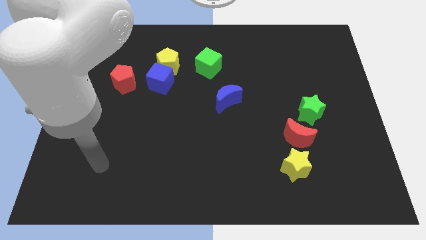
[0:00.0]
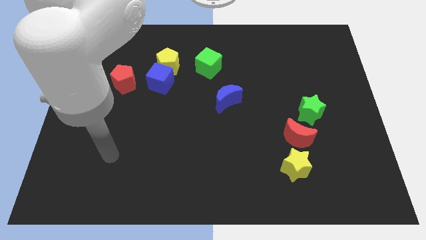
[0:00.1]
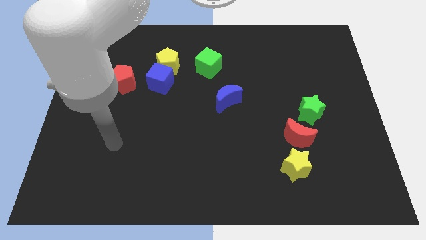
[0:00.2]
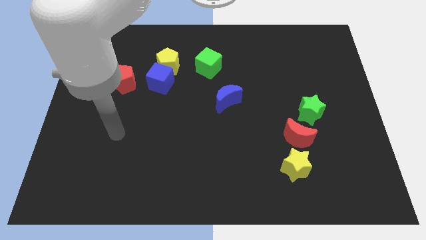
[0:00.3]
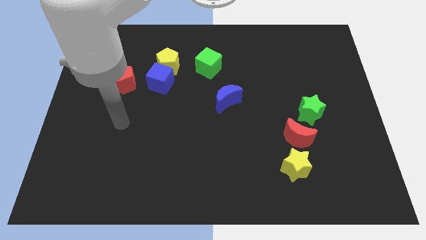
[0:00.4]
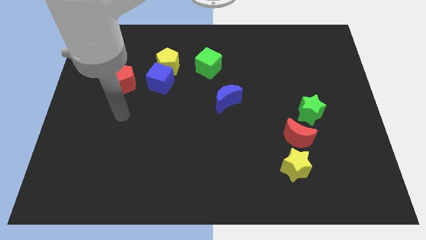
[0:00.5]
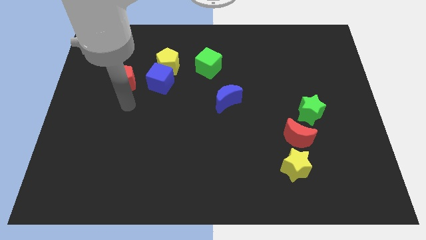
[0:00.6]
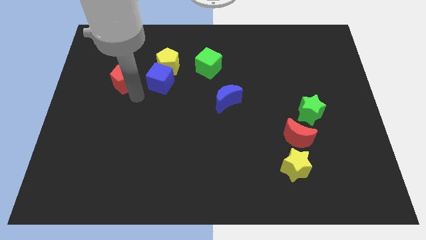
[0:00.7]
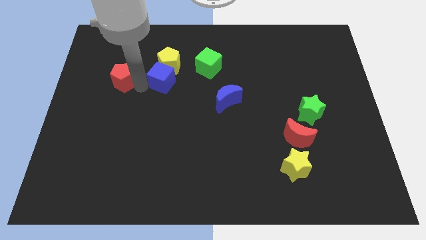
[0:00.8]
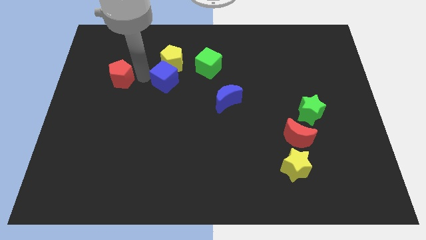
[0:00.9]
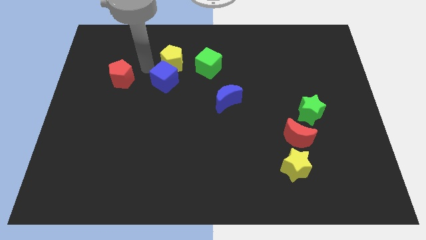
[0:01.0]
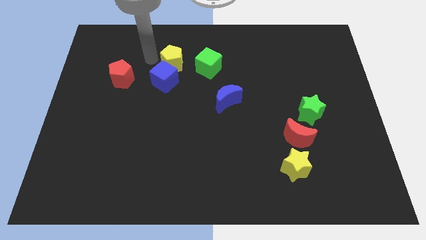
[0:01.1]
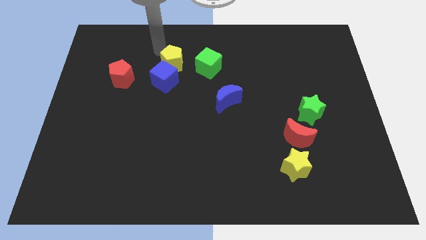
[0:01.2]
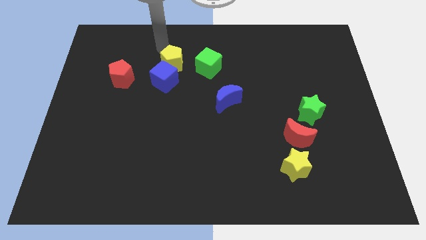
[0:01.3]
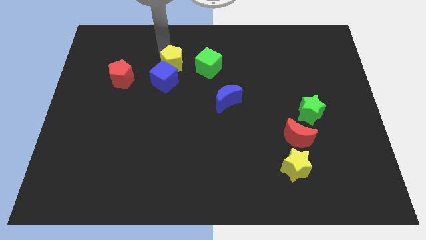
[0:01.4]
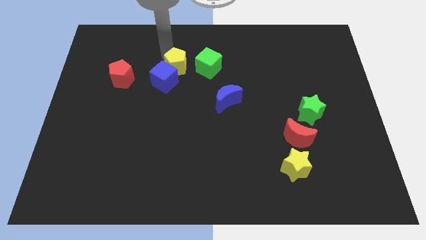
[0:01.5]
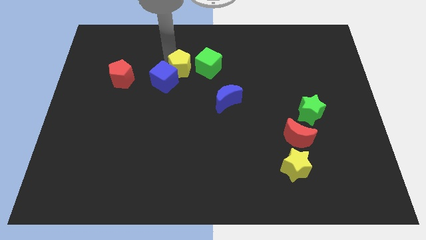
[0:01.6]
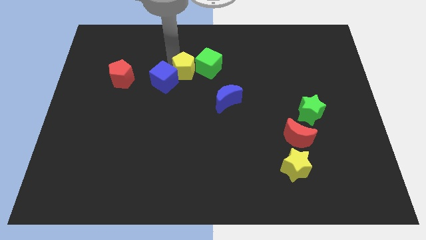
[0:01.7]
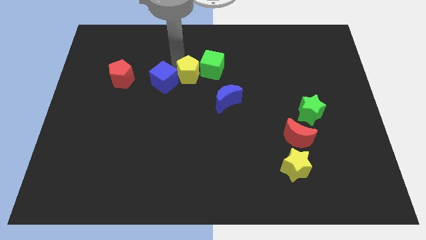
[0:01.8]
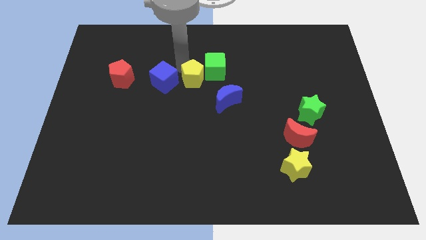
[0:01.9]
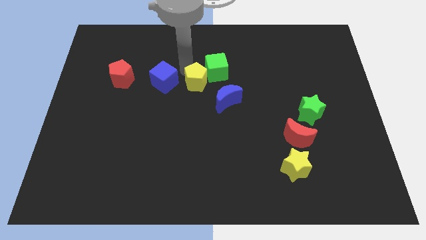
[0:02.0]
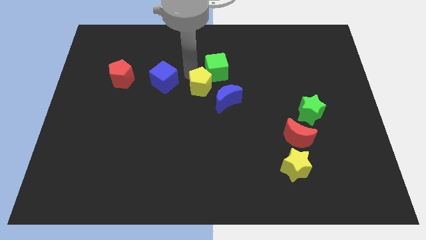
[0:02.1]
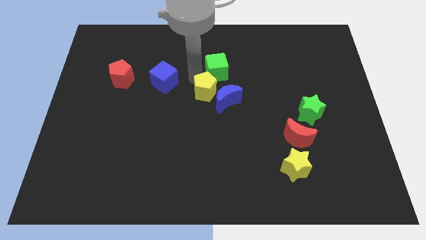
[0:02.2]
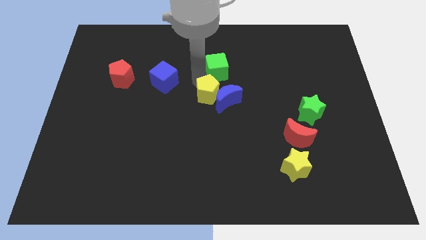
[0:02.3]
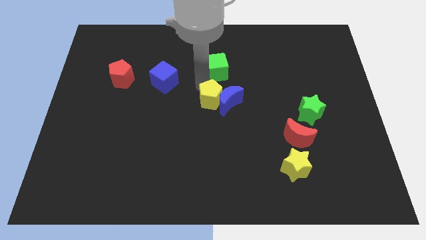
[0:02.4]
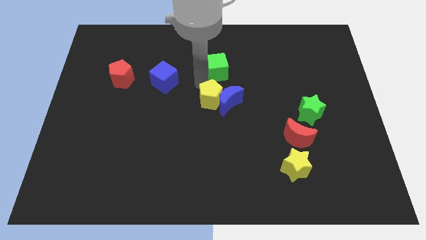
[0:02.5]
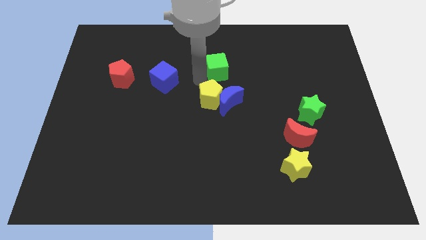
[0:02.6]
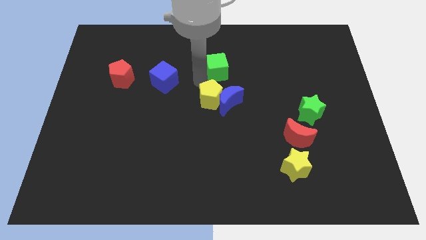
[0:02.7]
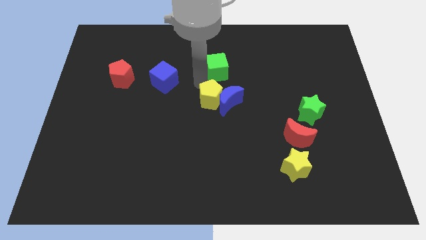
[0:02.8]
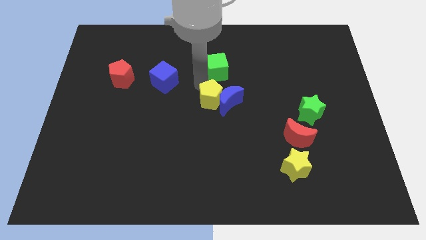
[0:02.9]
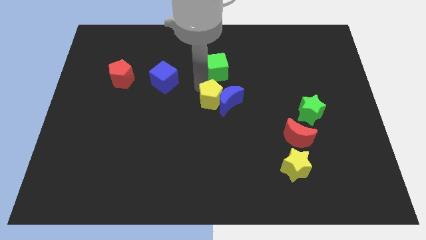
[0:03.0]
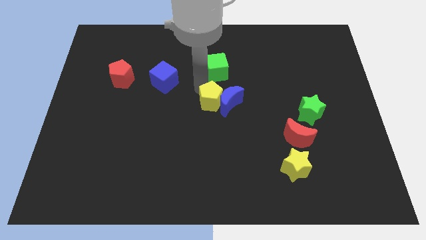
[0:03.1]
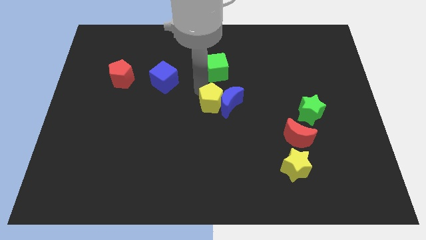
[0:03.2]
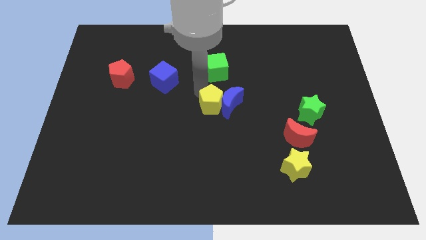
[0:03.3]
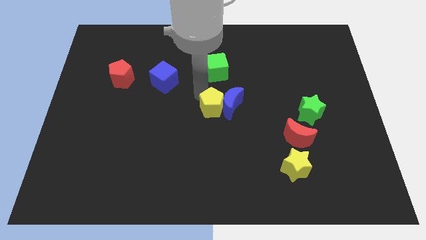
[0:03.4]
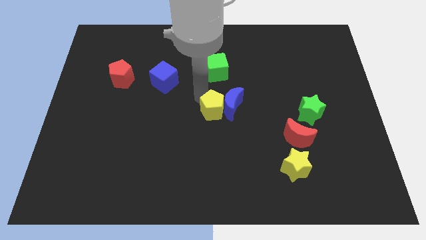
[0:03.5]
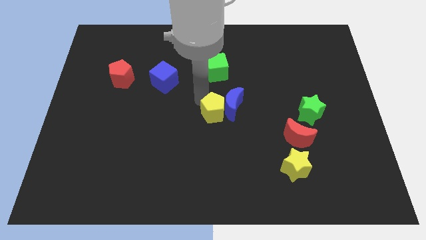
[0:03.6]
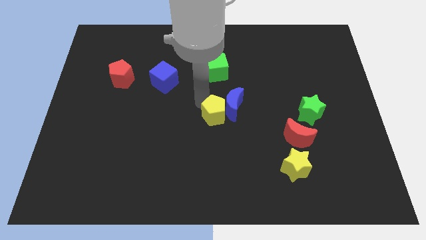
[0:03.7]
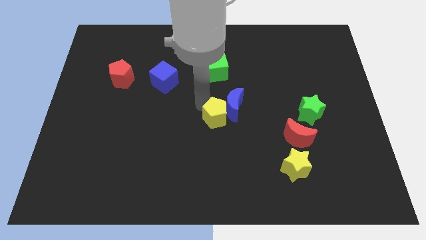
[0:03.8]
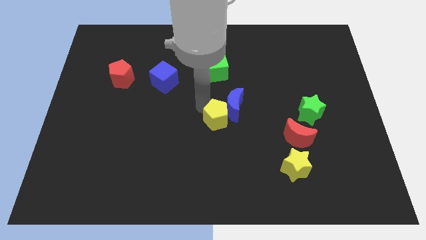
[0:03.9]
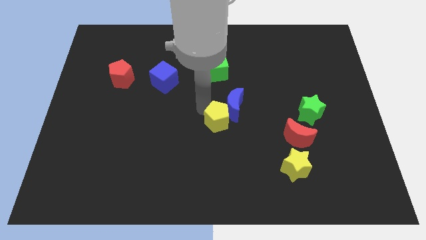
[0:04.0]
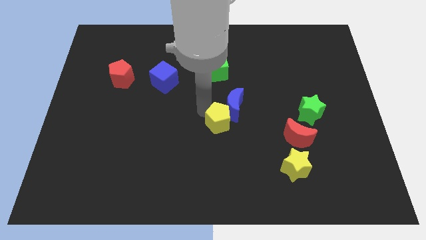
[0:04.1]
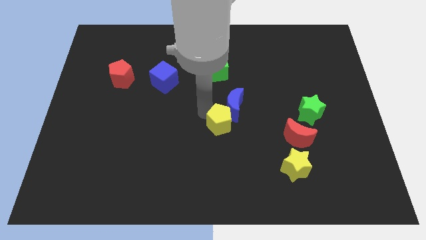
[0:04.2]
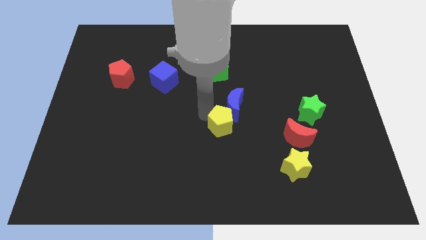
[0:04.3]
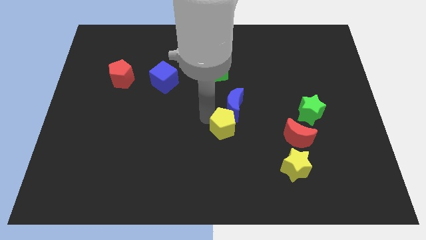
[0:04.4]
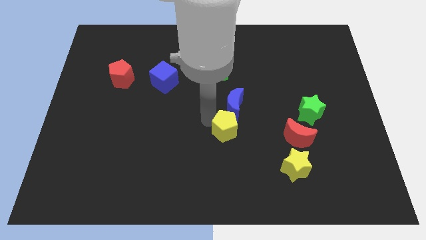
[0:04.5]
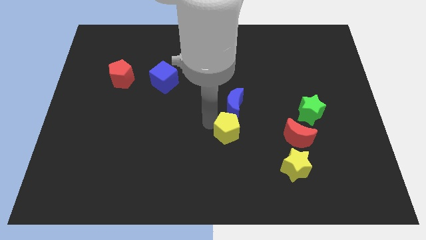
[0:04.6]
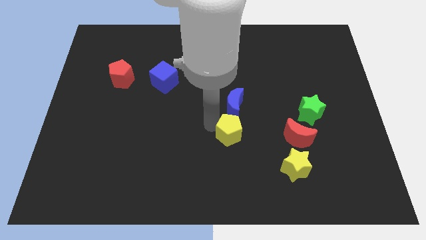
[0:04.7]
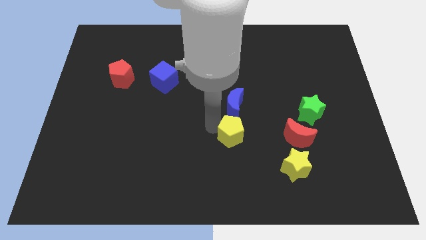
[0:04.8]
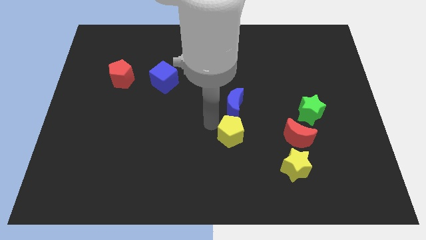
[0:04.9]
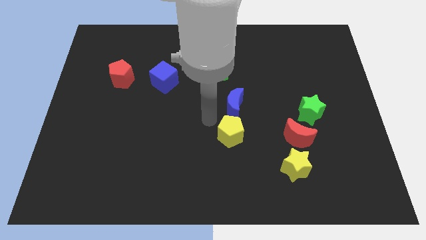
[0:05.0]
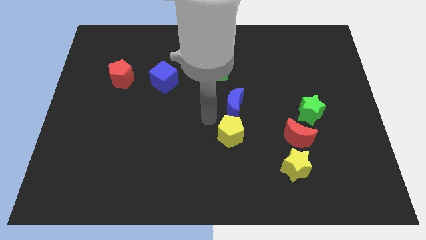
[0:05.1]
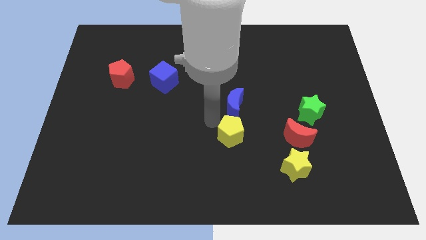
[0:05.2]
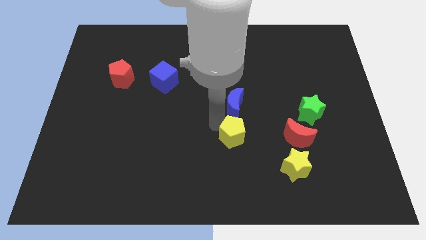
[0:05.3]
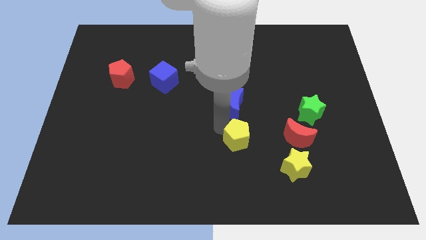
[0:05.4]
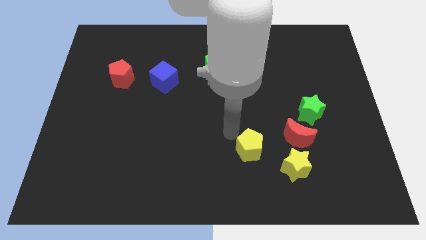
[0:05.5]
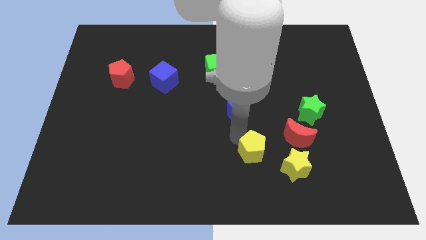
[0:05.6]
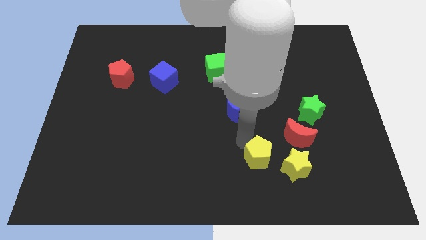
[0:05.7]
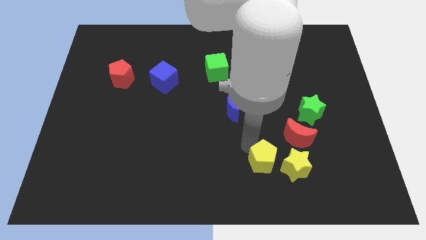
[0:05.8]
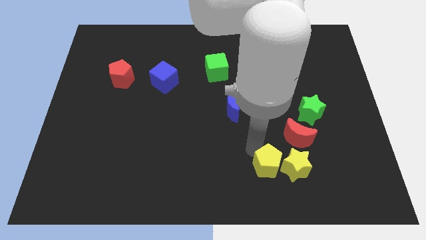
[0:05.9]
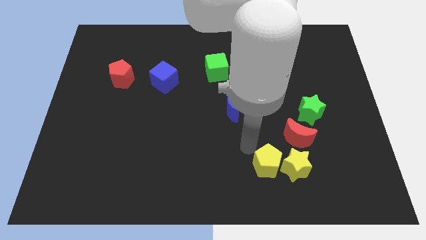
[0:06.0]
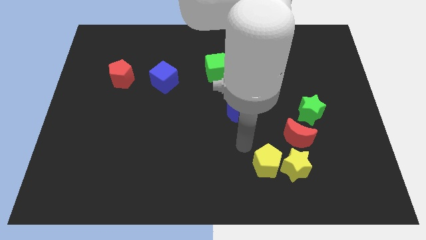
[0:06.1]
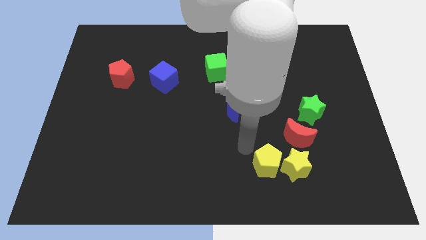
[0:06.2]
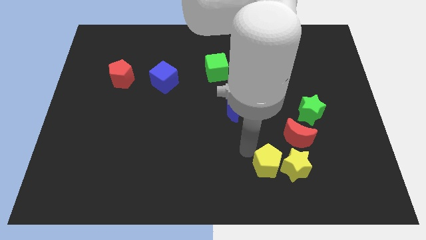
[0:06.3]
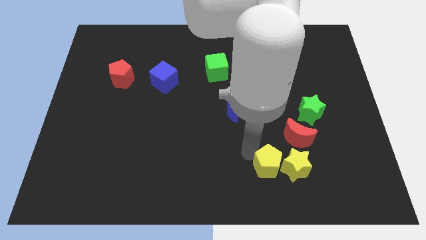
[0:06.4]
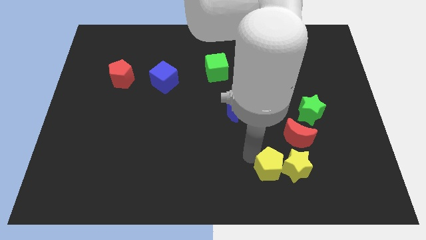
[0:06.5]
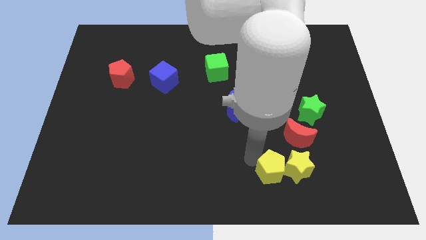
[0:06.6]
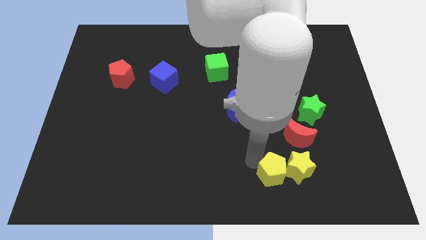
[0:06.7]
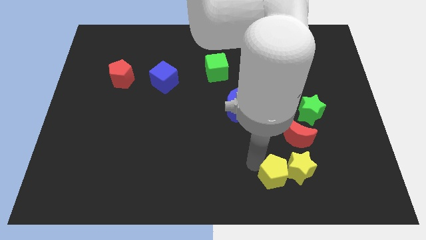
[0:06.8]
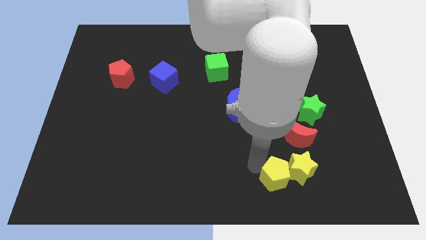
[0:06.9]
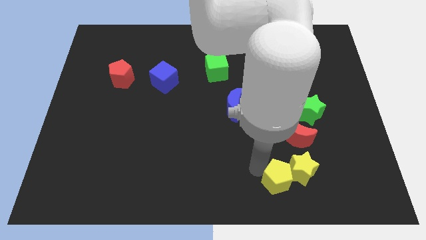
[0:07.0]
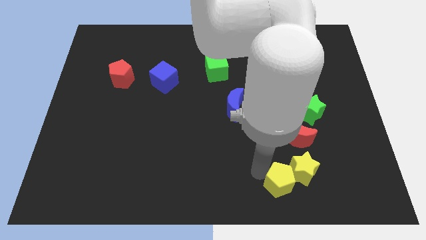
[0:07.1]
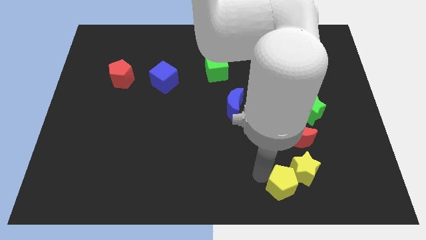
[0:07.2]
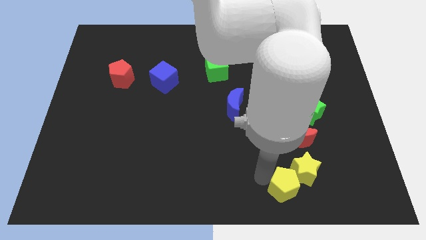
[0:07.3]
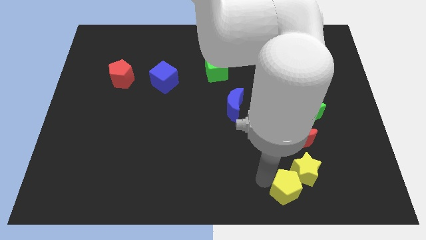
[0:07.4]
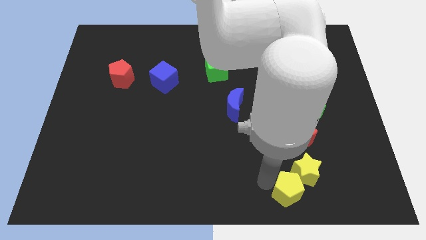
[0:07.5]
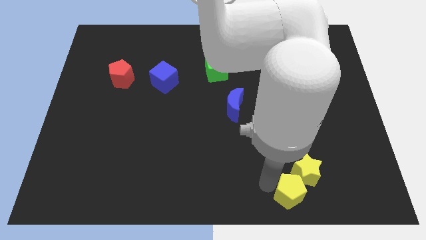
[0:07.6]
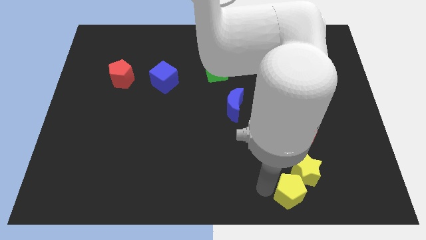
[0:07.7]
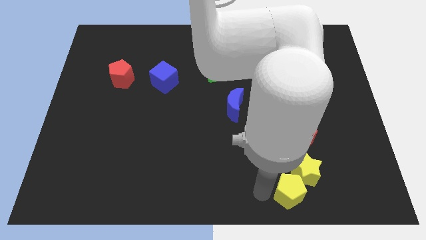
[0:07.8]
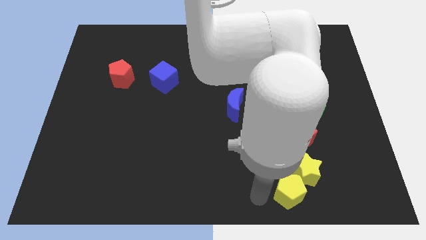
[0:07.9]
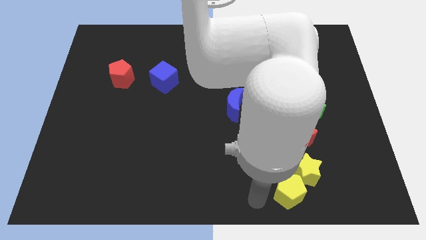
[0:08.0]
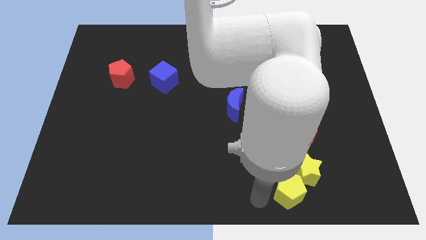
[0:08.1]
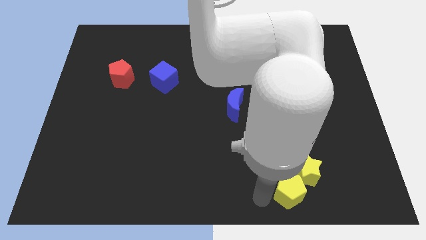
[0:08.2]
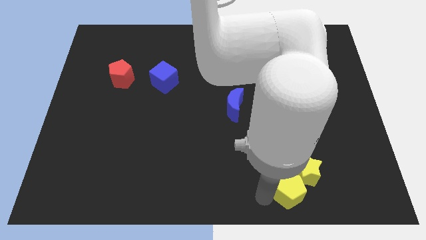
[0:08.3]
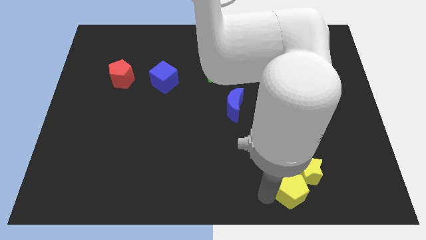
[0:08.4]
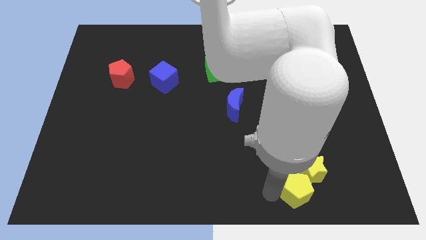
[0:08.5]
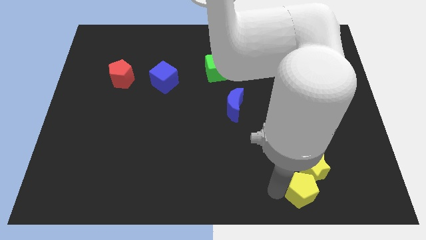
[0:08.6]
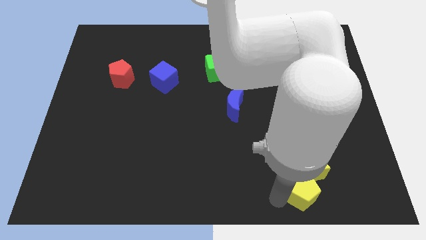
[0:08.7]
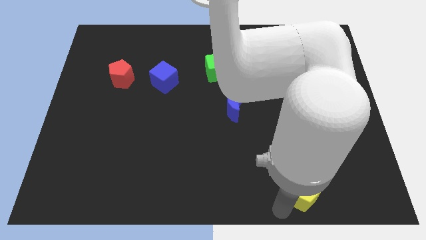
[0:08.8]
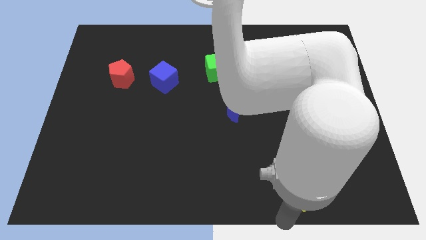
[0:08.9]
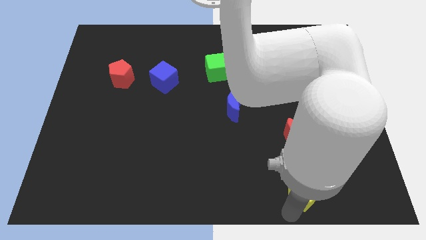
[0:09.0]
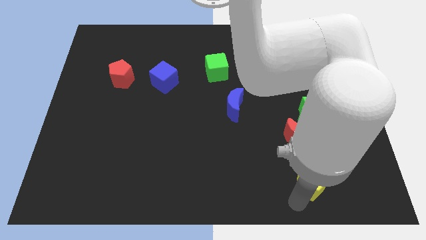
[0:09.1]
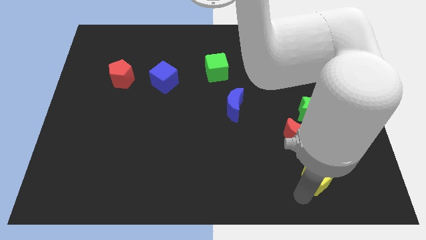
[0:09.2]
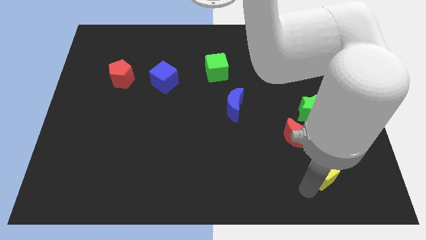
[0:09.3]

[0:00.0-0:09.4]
move the yellow pentagon diagonally down and to the right of the red moon
